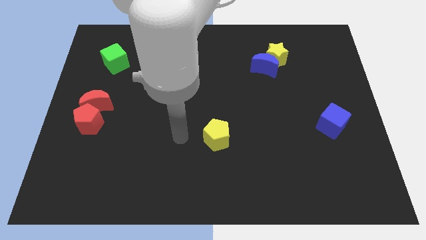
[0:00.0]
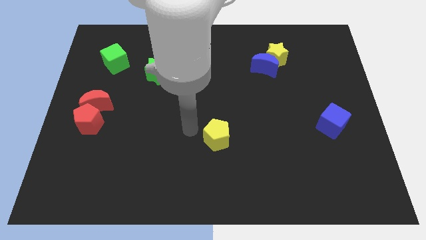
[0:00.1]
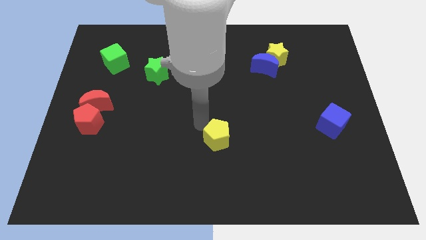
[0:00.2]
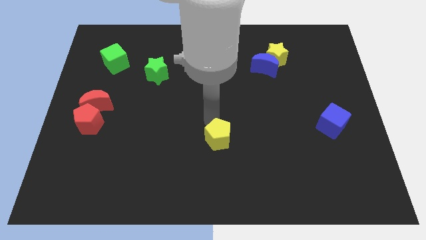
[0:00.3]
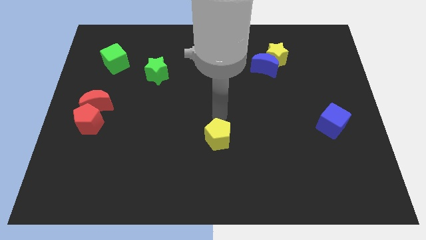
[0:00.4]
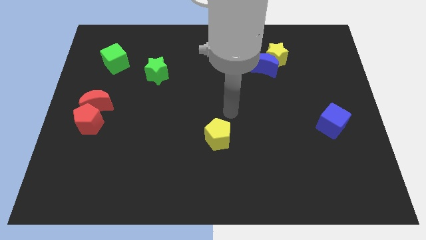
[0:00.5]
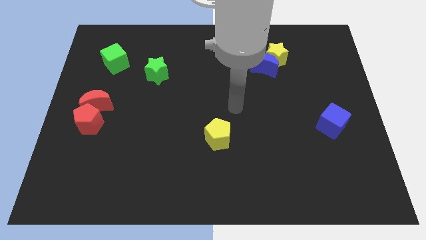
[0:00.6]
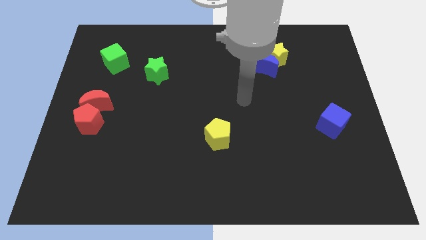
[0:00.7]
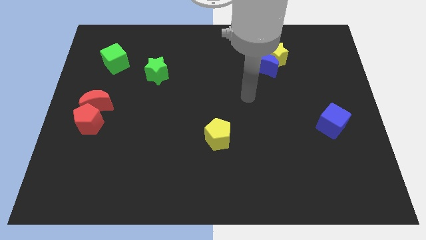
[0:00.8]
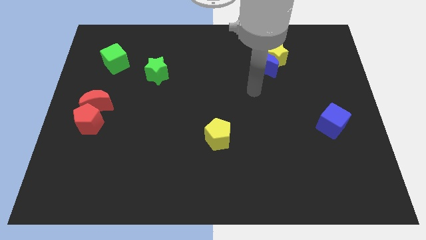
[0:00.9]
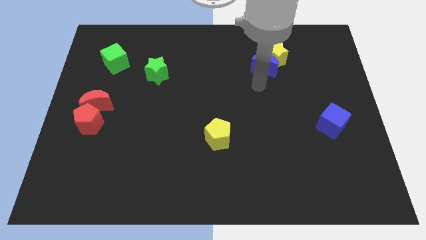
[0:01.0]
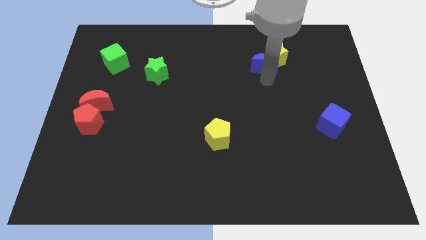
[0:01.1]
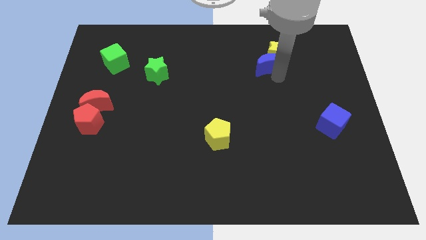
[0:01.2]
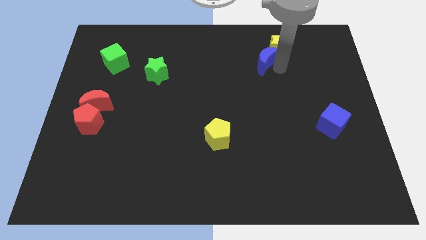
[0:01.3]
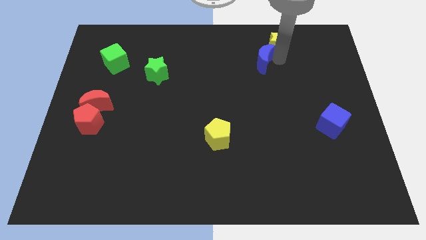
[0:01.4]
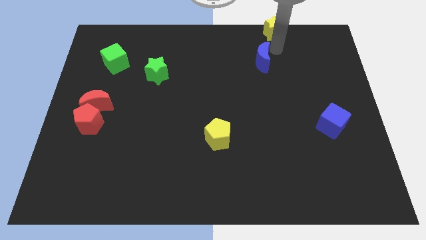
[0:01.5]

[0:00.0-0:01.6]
move the blue moon away from the yellow star

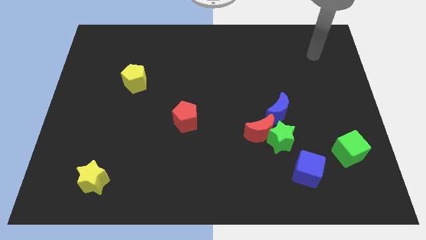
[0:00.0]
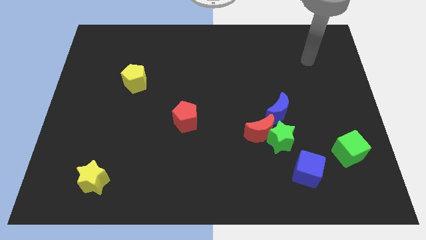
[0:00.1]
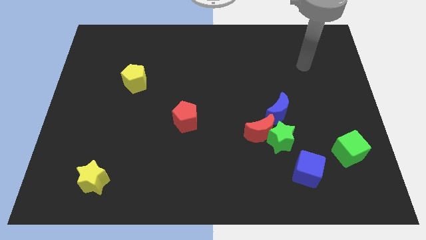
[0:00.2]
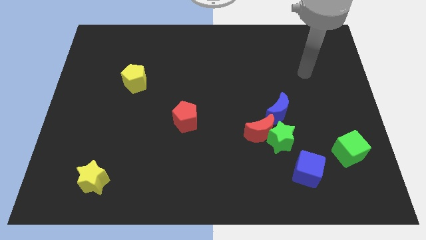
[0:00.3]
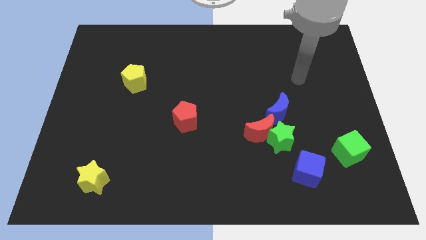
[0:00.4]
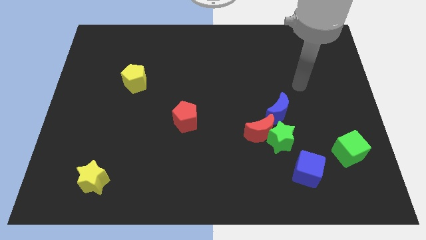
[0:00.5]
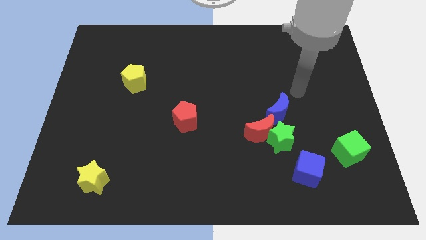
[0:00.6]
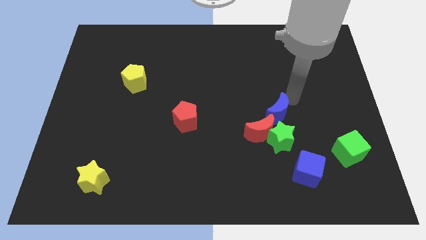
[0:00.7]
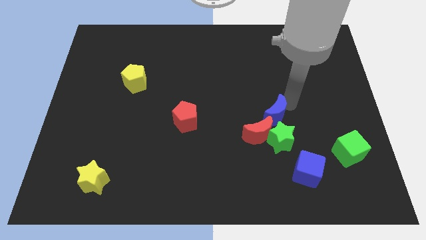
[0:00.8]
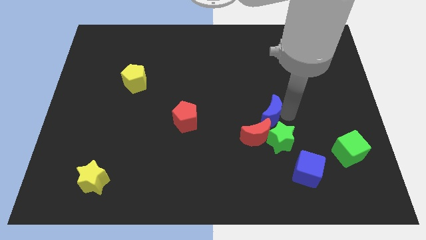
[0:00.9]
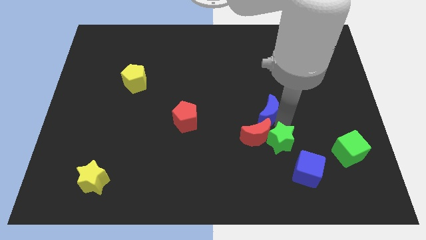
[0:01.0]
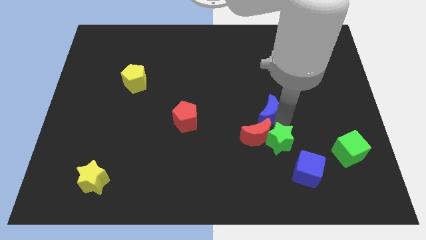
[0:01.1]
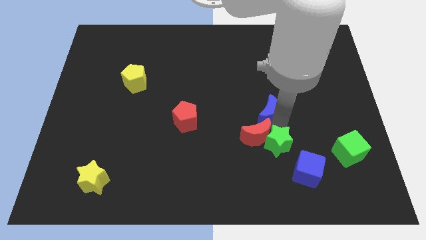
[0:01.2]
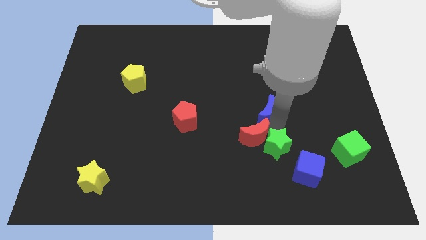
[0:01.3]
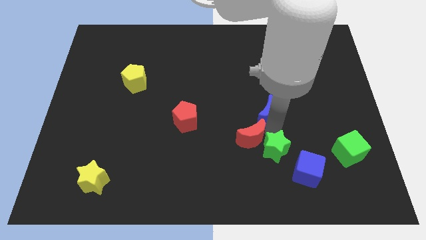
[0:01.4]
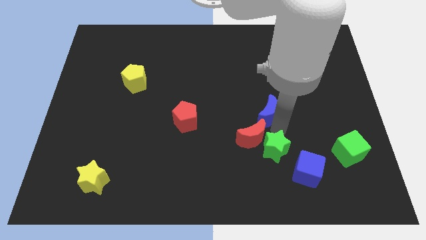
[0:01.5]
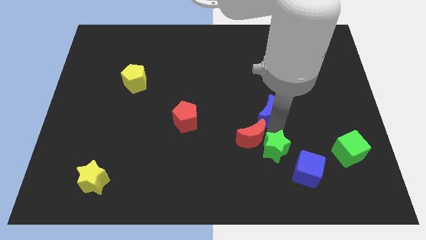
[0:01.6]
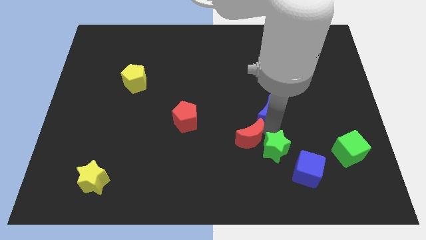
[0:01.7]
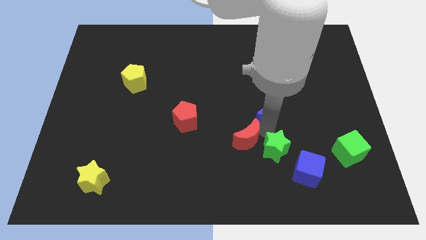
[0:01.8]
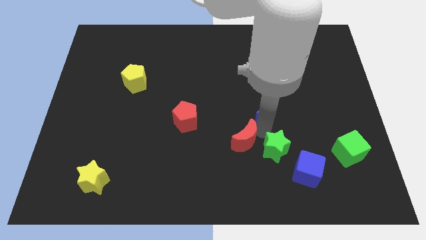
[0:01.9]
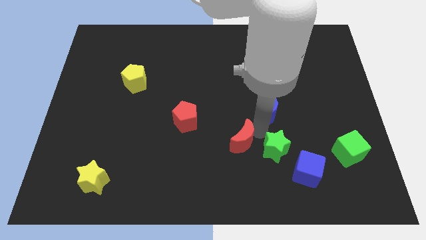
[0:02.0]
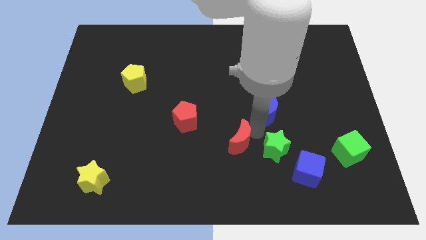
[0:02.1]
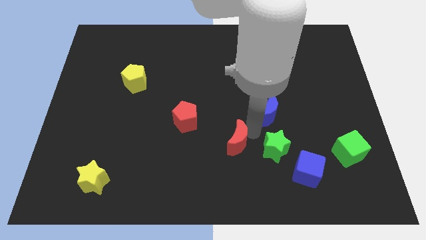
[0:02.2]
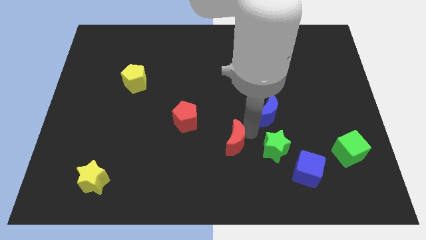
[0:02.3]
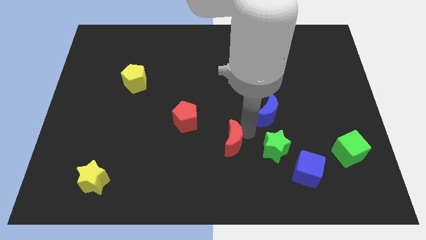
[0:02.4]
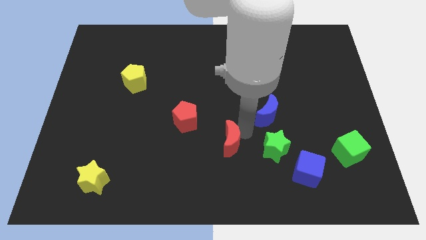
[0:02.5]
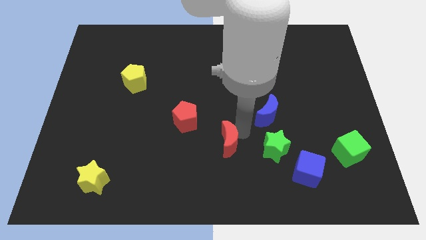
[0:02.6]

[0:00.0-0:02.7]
pull the red moon apart from the green star and blue moon

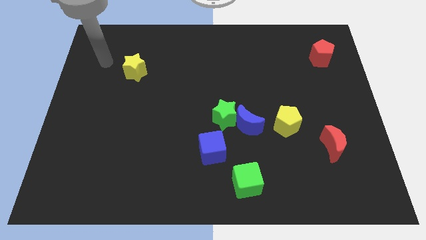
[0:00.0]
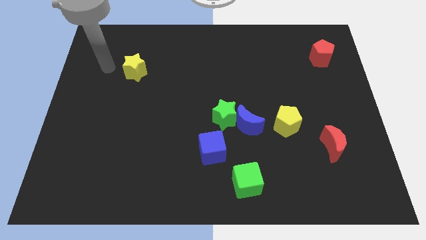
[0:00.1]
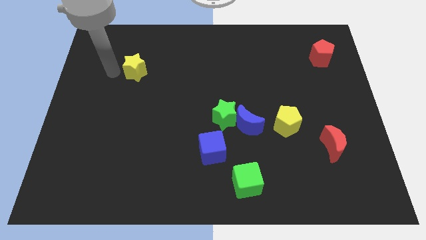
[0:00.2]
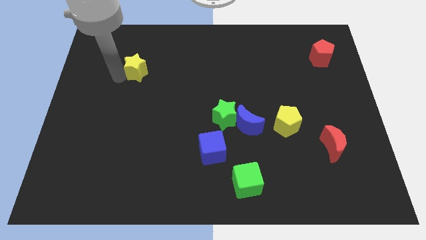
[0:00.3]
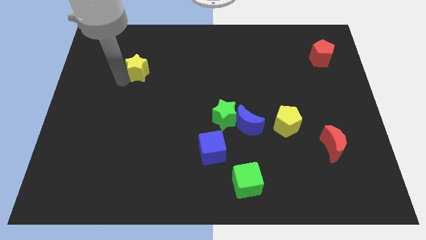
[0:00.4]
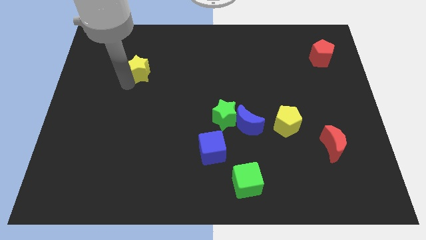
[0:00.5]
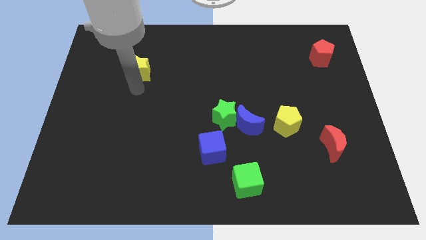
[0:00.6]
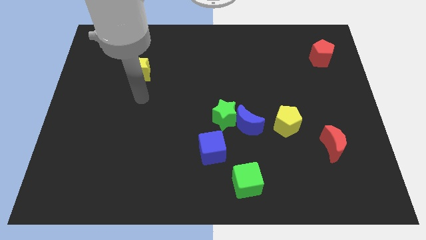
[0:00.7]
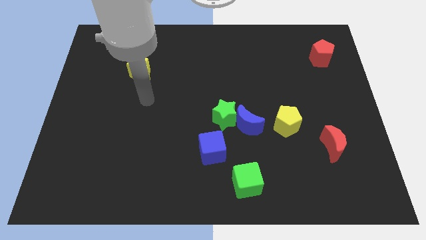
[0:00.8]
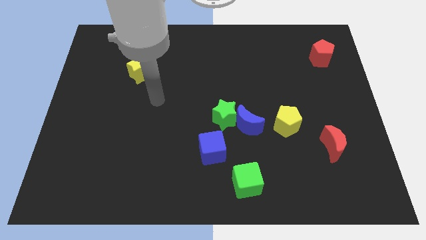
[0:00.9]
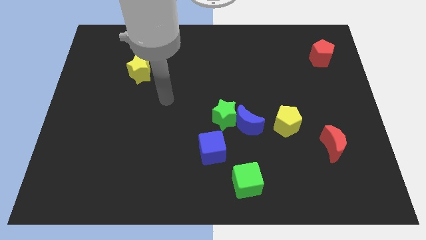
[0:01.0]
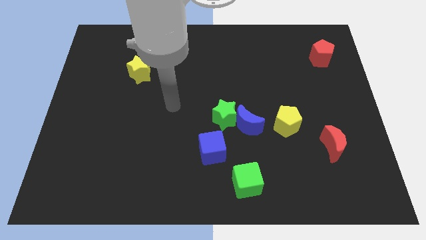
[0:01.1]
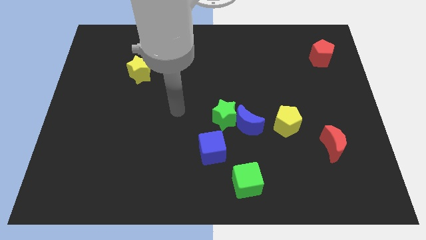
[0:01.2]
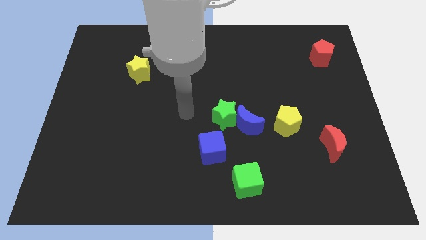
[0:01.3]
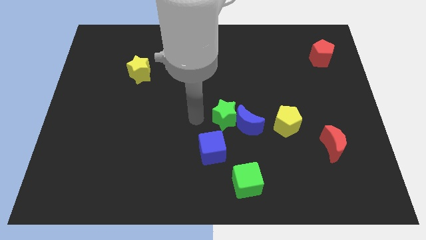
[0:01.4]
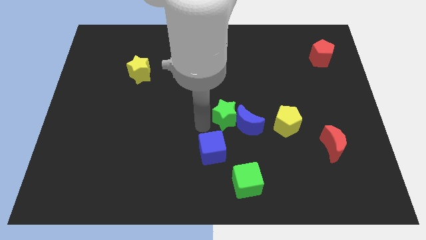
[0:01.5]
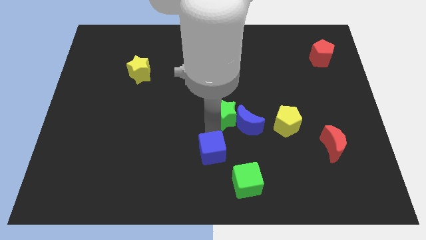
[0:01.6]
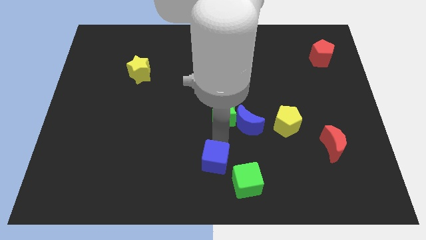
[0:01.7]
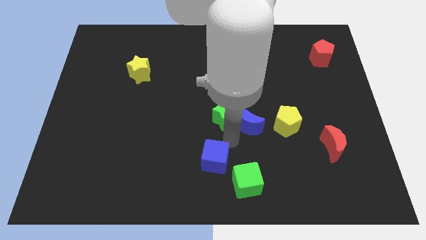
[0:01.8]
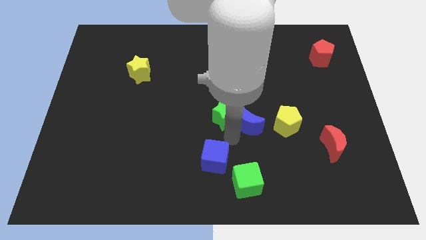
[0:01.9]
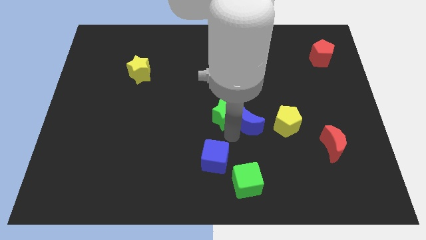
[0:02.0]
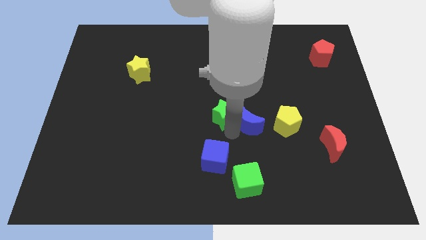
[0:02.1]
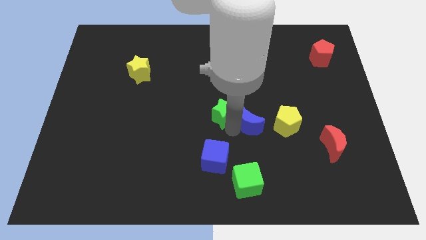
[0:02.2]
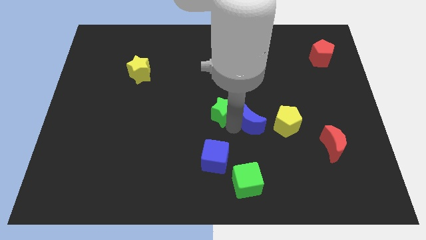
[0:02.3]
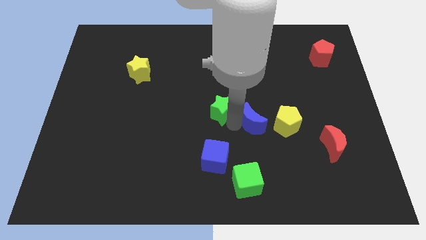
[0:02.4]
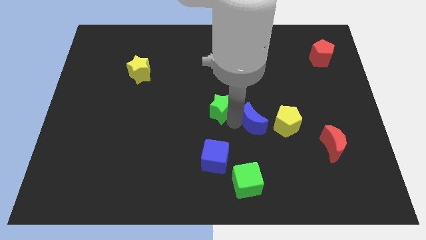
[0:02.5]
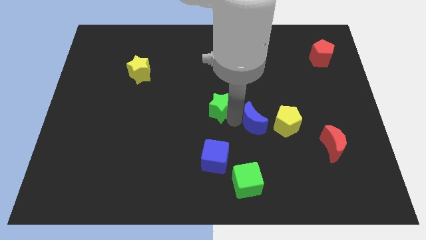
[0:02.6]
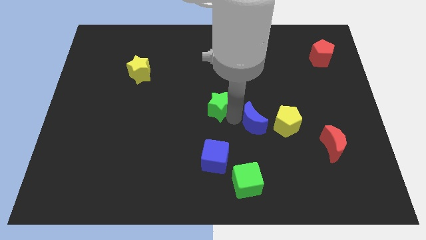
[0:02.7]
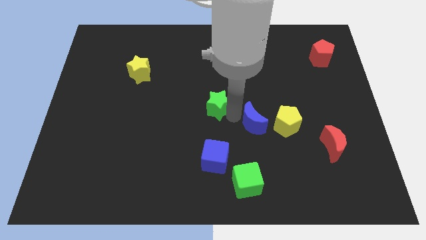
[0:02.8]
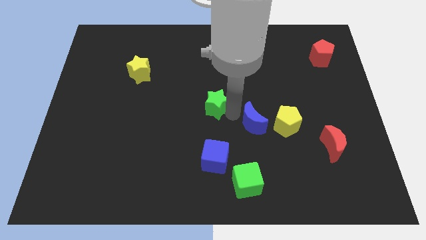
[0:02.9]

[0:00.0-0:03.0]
separate the green star from the blue moon and blue cube

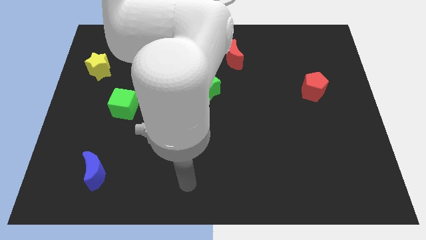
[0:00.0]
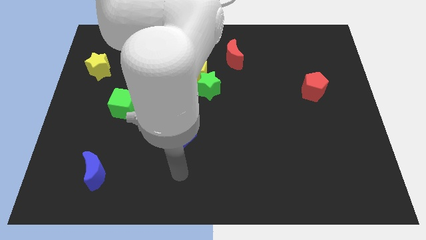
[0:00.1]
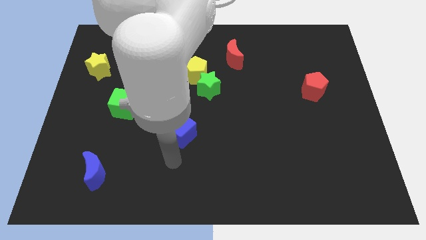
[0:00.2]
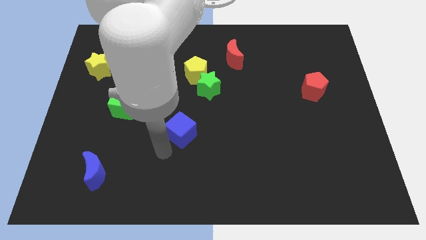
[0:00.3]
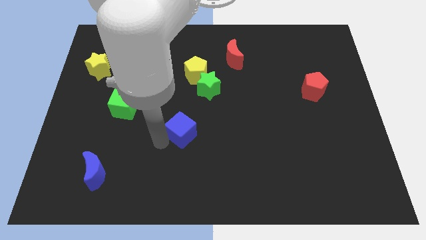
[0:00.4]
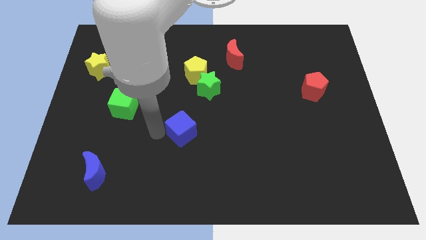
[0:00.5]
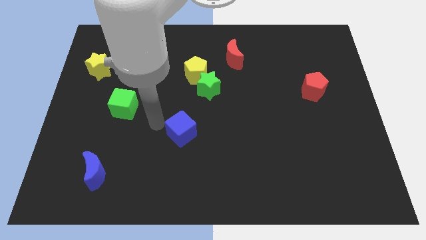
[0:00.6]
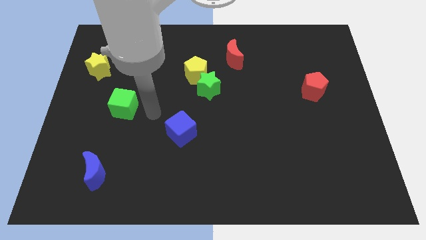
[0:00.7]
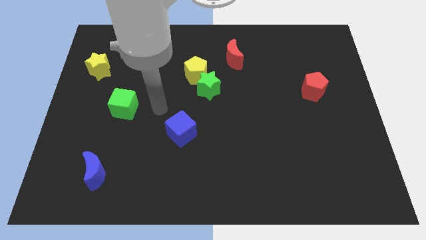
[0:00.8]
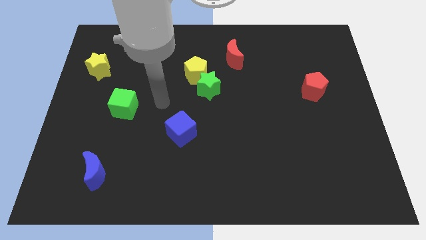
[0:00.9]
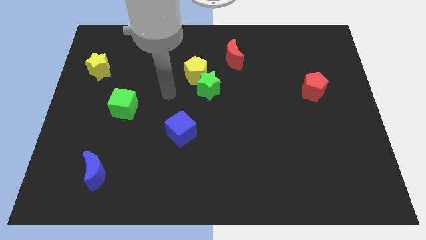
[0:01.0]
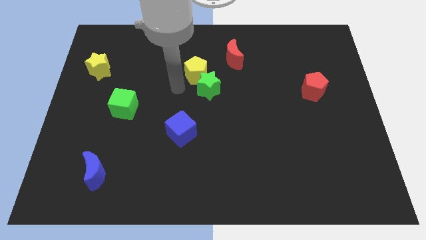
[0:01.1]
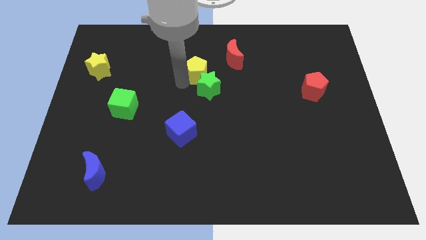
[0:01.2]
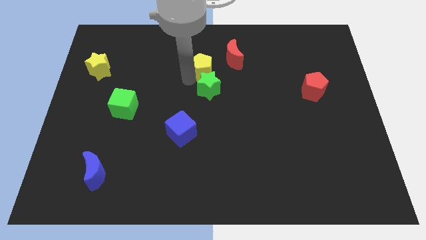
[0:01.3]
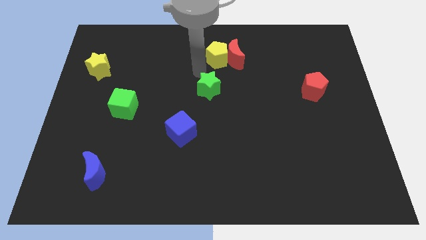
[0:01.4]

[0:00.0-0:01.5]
move the green star away from the yellow pentagon

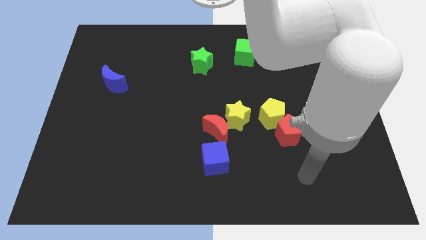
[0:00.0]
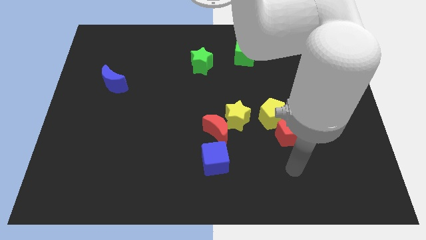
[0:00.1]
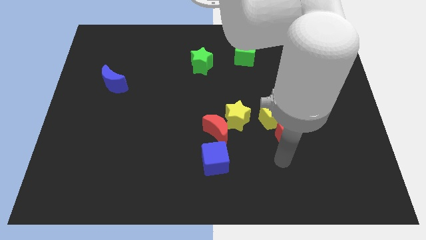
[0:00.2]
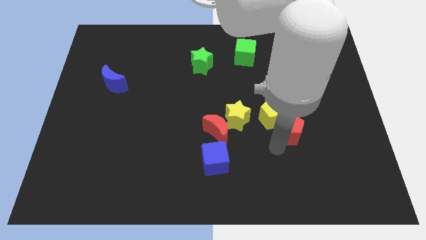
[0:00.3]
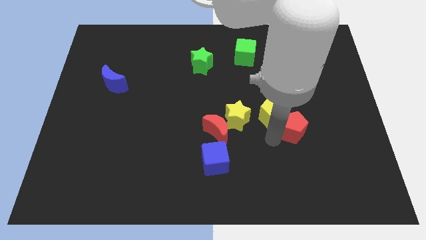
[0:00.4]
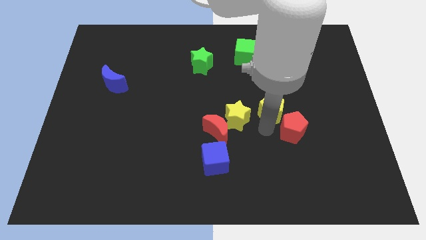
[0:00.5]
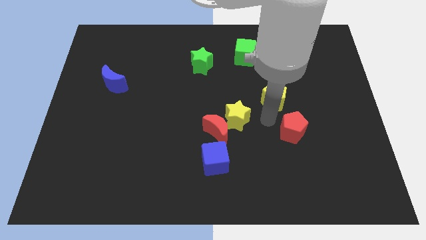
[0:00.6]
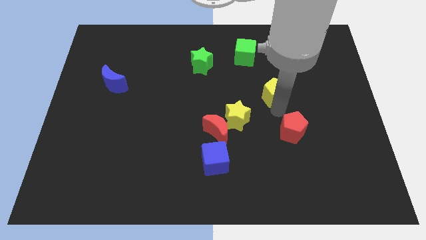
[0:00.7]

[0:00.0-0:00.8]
move the red pentagon away from the yellow pentagon
